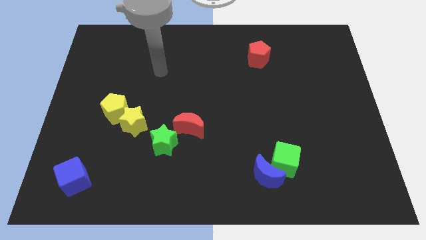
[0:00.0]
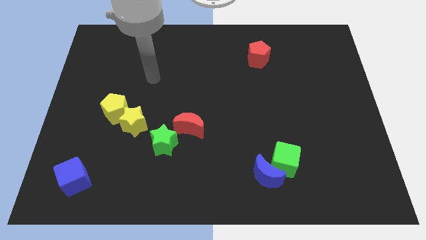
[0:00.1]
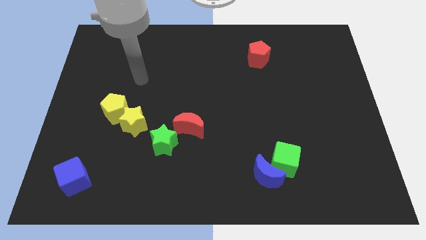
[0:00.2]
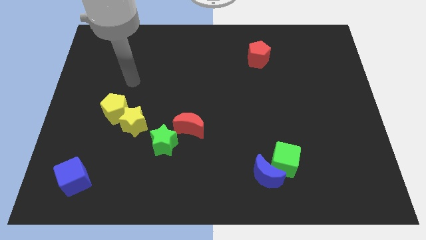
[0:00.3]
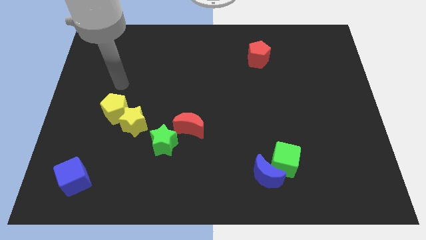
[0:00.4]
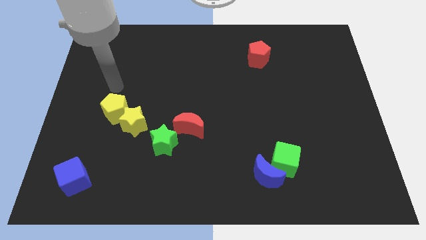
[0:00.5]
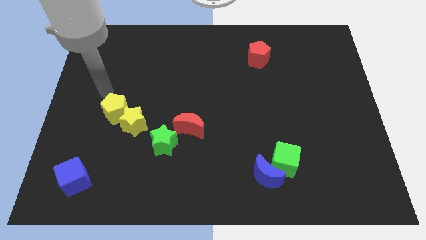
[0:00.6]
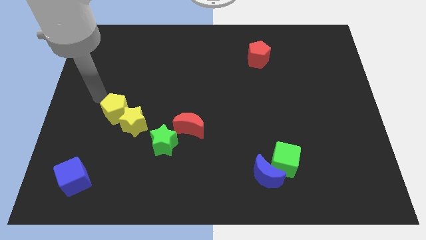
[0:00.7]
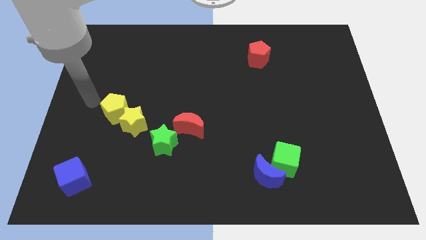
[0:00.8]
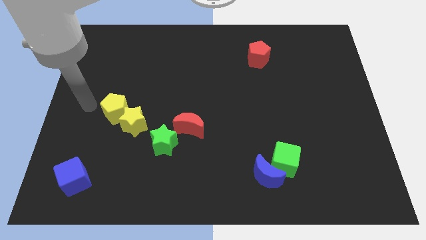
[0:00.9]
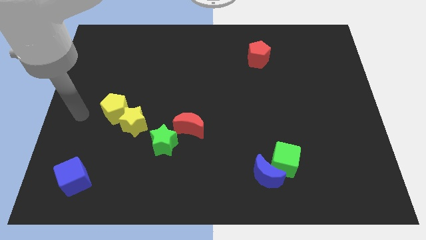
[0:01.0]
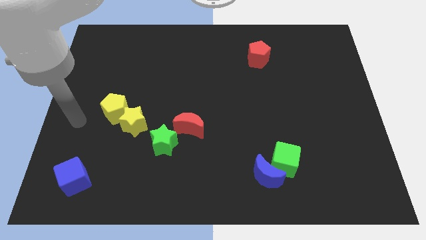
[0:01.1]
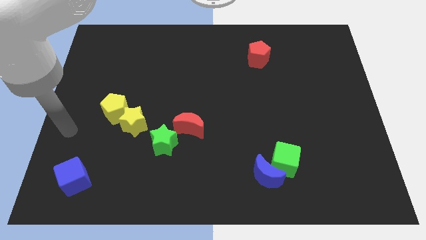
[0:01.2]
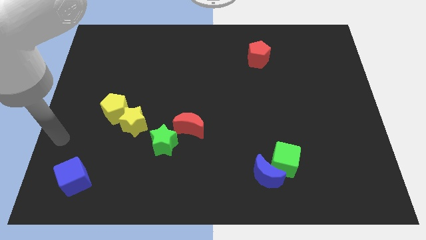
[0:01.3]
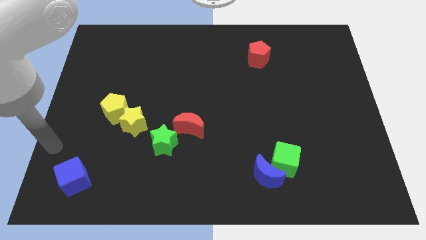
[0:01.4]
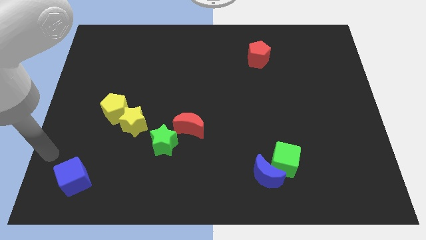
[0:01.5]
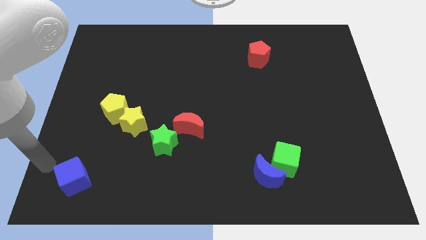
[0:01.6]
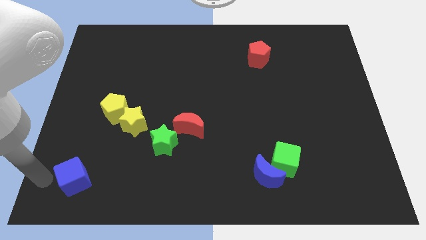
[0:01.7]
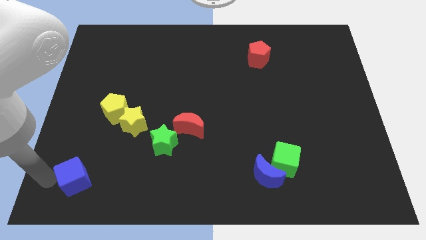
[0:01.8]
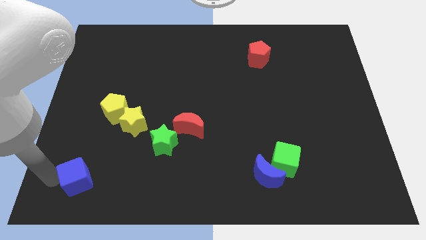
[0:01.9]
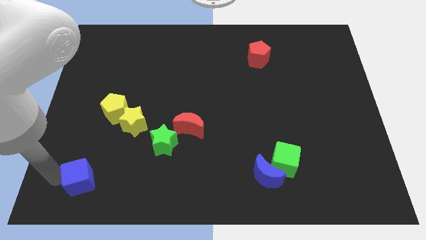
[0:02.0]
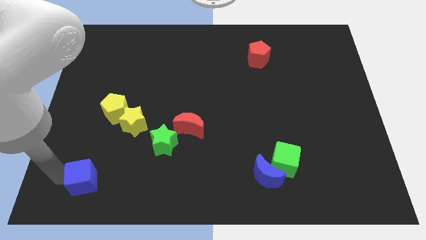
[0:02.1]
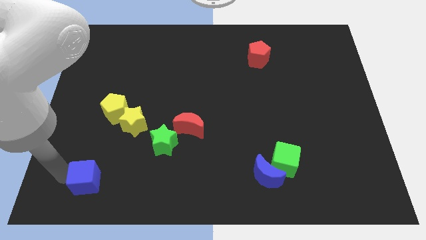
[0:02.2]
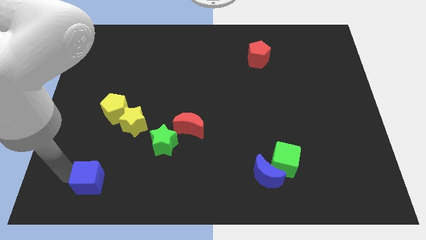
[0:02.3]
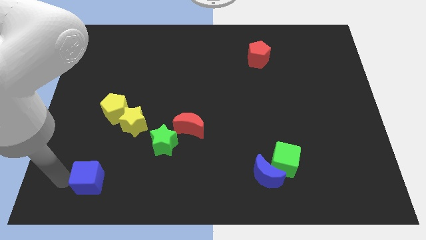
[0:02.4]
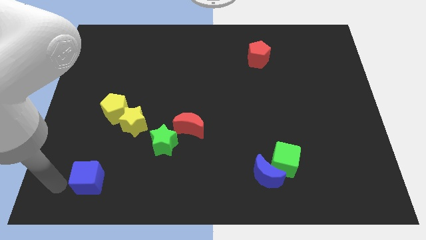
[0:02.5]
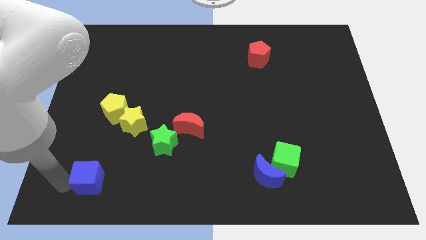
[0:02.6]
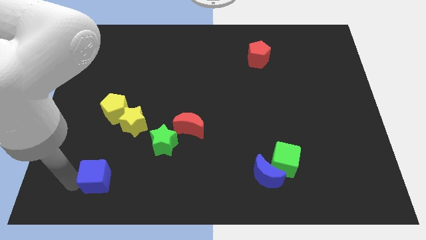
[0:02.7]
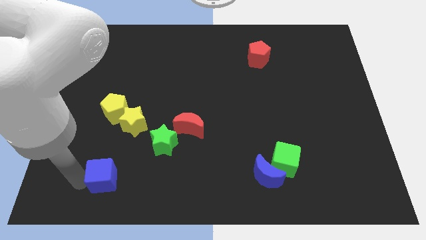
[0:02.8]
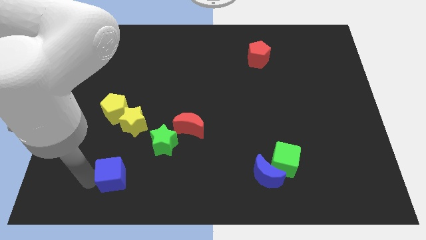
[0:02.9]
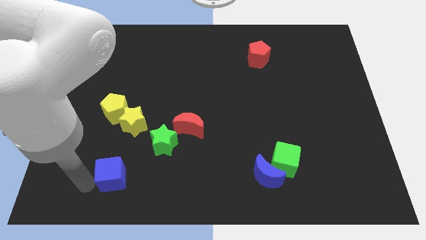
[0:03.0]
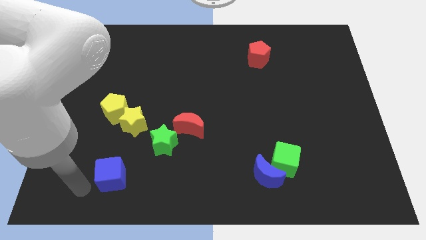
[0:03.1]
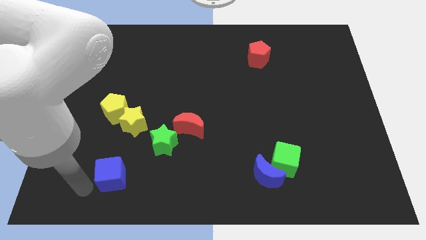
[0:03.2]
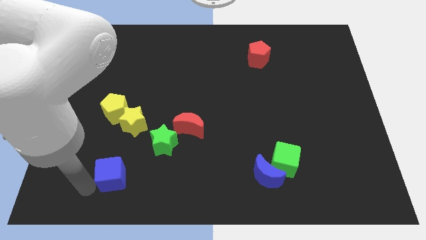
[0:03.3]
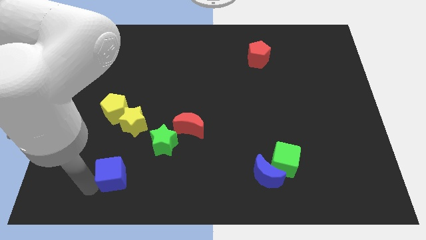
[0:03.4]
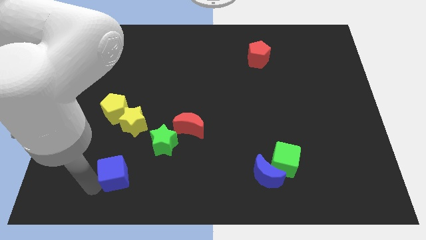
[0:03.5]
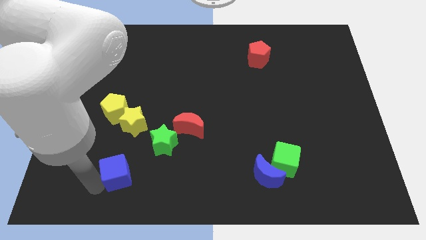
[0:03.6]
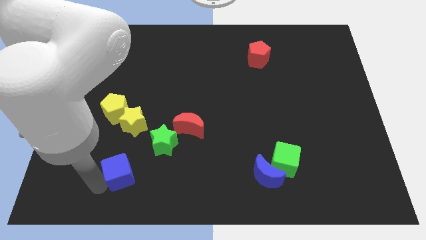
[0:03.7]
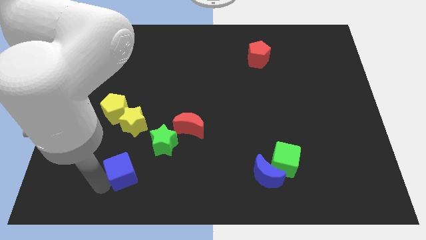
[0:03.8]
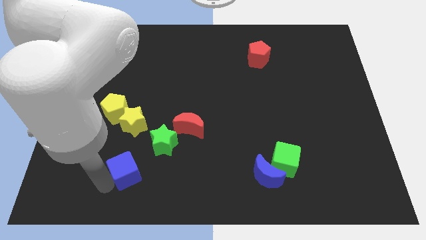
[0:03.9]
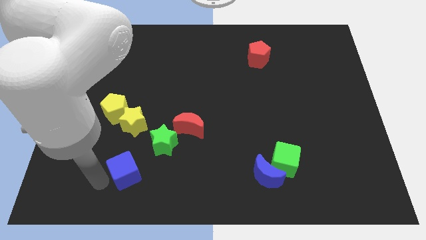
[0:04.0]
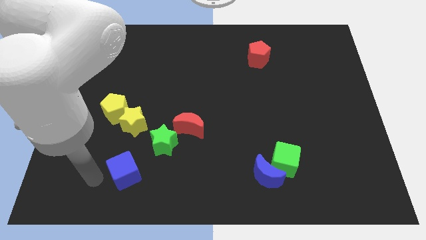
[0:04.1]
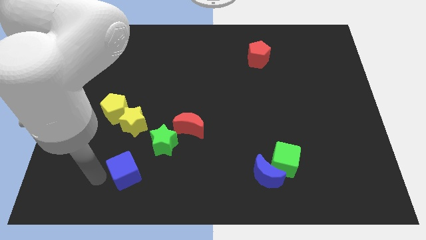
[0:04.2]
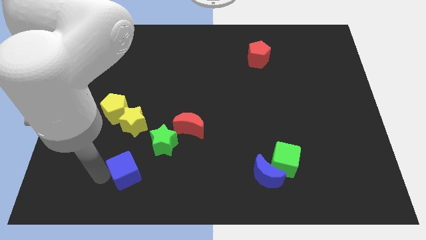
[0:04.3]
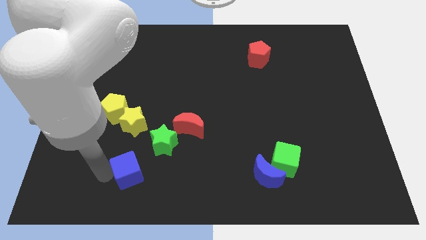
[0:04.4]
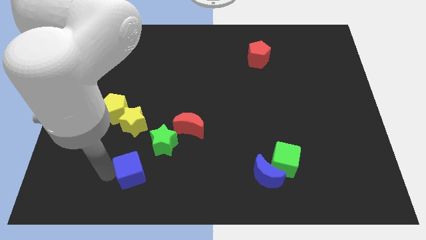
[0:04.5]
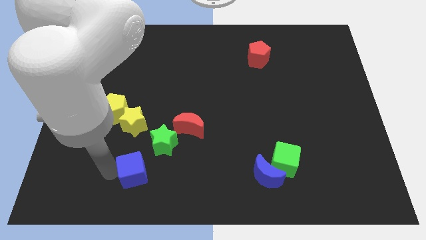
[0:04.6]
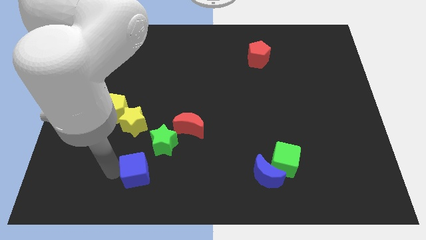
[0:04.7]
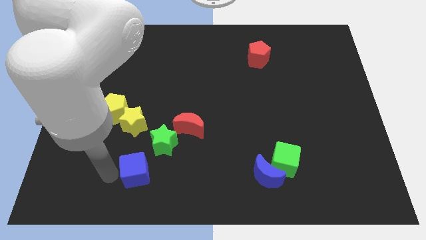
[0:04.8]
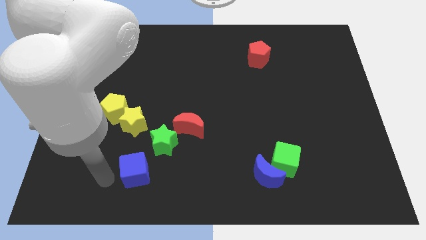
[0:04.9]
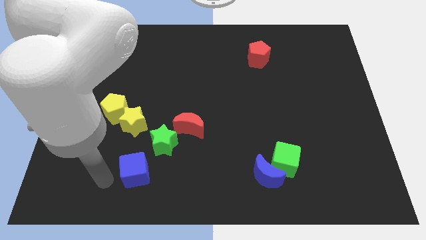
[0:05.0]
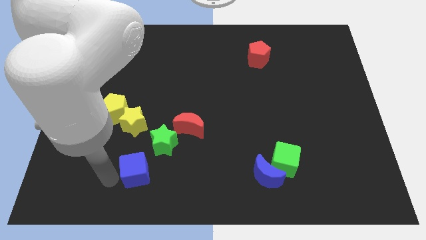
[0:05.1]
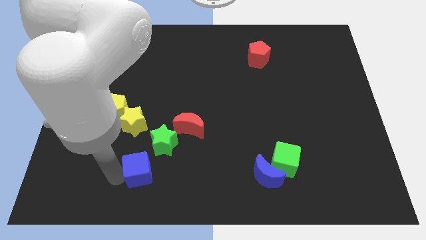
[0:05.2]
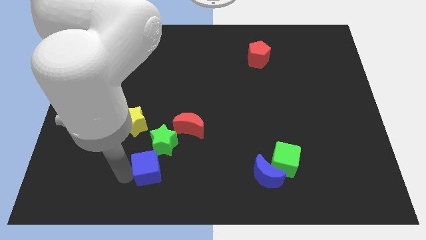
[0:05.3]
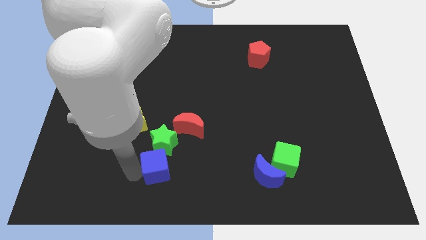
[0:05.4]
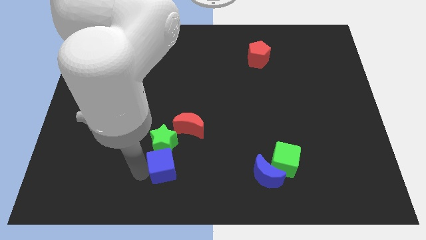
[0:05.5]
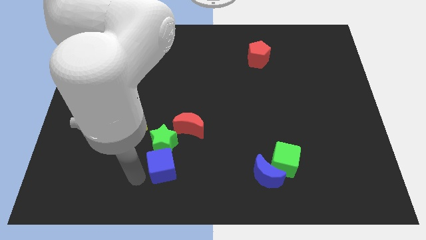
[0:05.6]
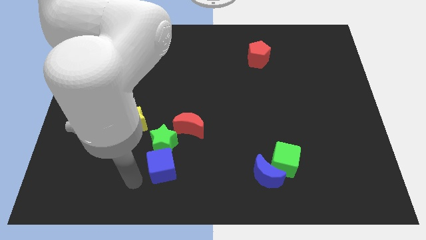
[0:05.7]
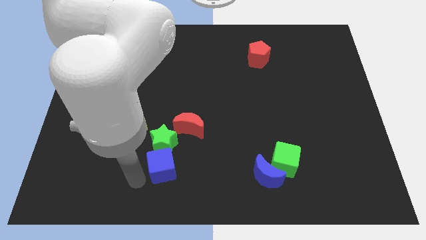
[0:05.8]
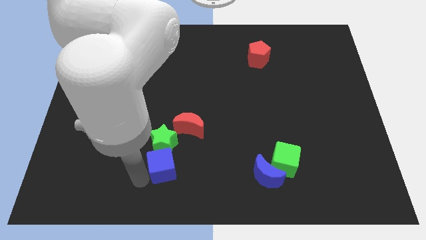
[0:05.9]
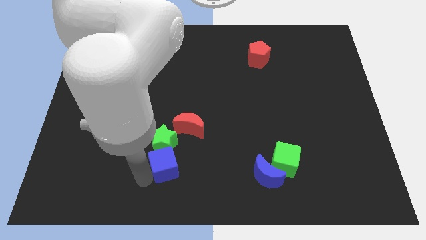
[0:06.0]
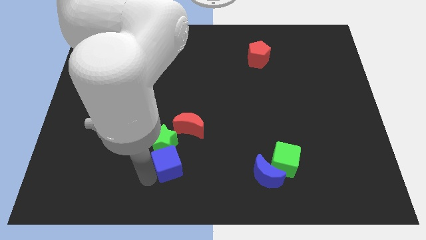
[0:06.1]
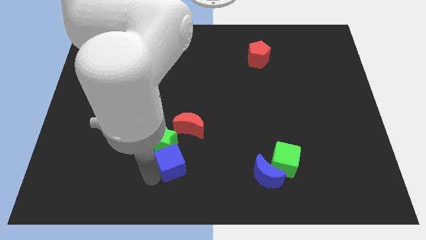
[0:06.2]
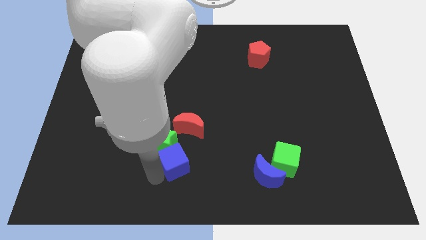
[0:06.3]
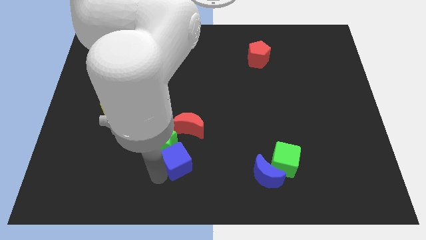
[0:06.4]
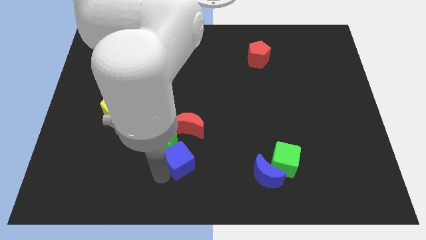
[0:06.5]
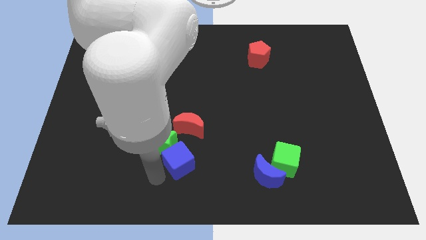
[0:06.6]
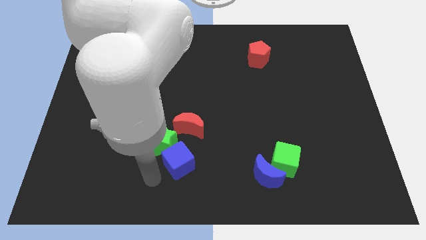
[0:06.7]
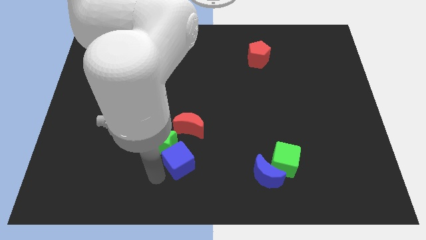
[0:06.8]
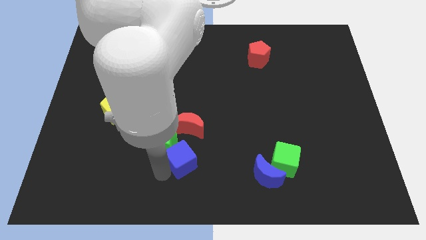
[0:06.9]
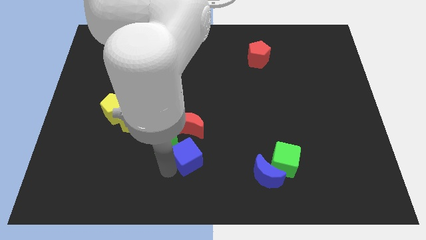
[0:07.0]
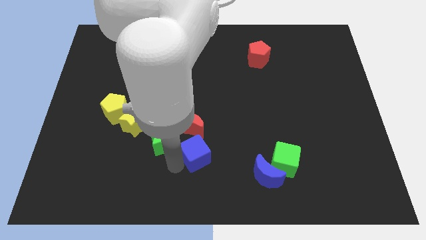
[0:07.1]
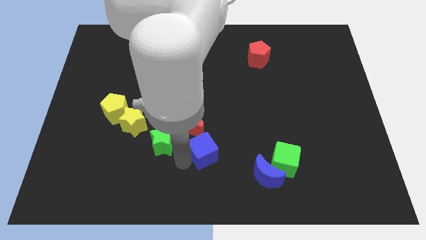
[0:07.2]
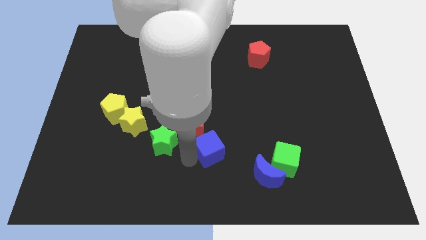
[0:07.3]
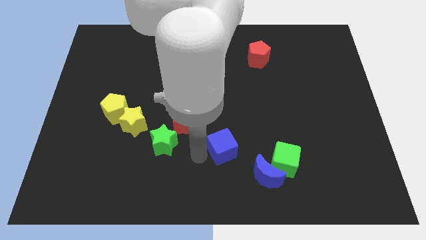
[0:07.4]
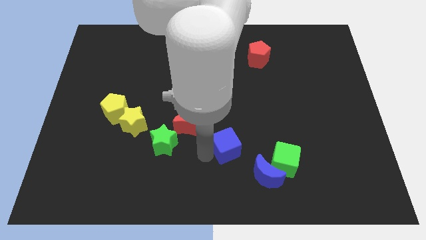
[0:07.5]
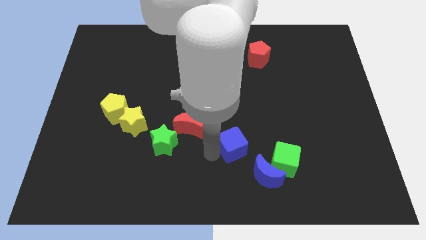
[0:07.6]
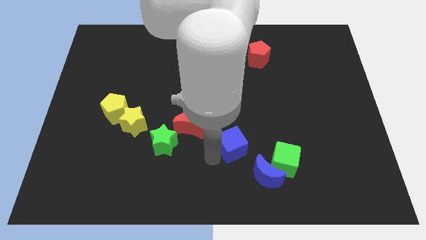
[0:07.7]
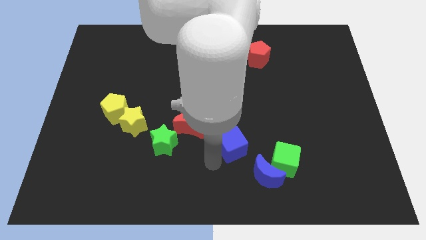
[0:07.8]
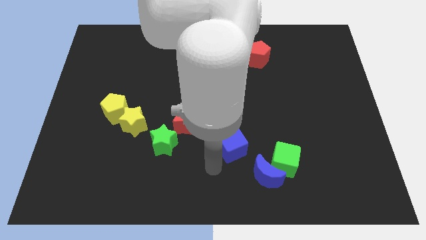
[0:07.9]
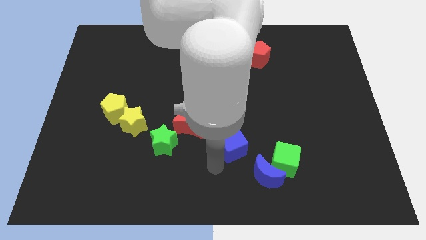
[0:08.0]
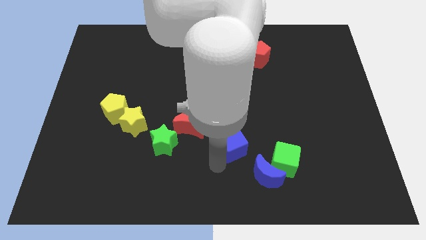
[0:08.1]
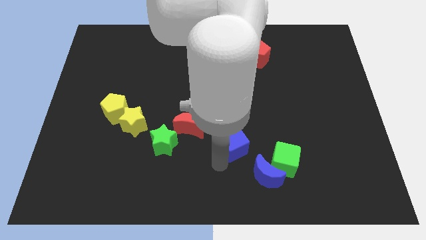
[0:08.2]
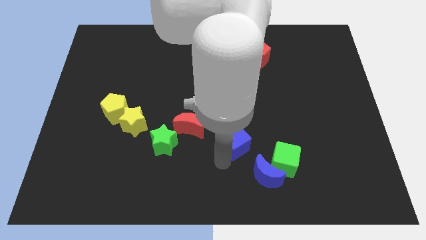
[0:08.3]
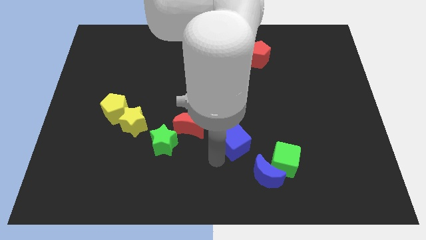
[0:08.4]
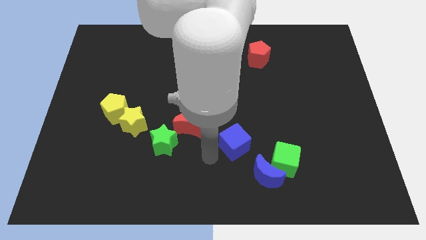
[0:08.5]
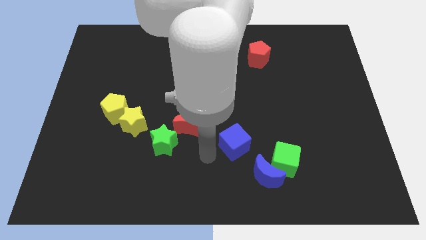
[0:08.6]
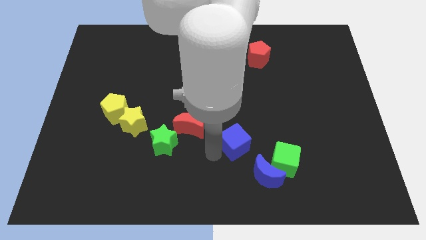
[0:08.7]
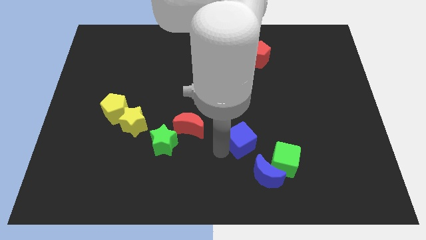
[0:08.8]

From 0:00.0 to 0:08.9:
slide the blue cube to the top side of the blue moon
